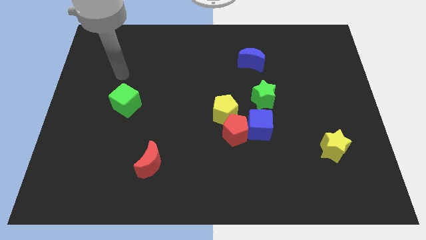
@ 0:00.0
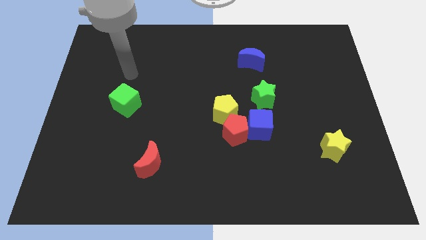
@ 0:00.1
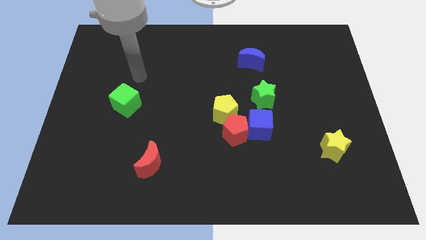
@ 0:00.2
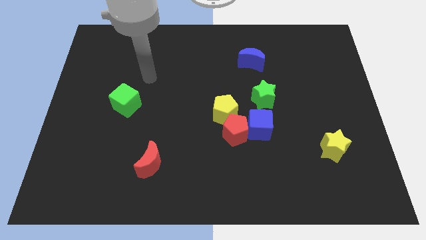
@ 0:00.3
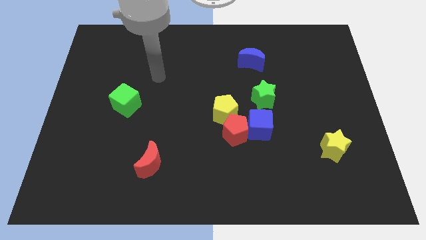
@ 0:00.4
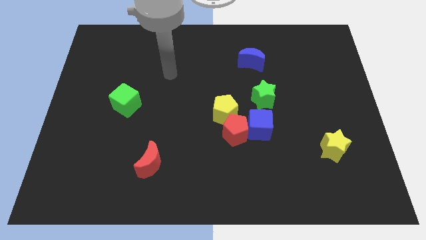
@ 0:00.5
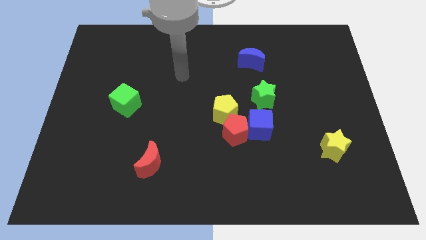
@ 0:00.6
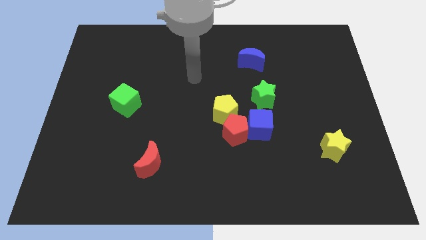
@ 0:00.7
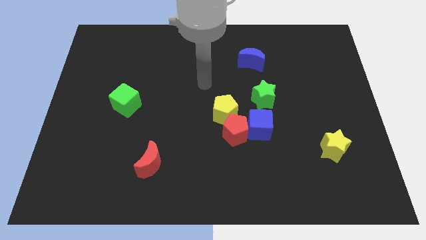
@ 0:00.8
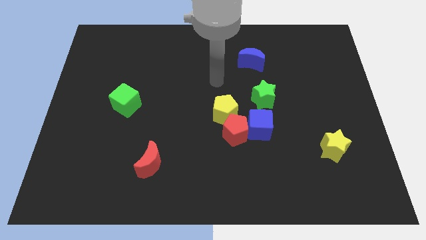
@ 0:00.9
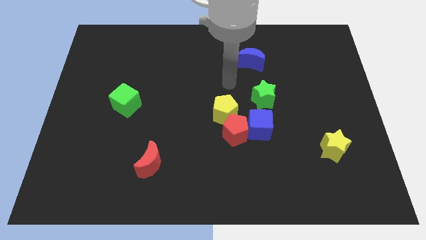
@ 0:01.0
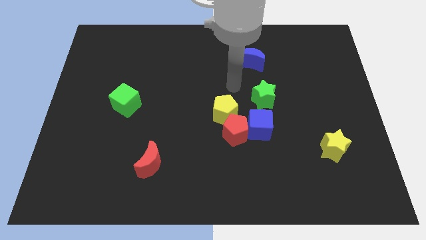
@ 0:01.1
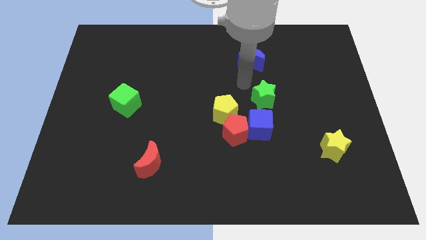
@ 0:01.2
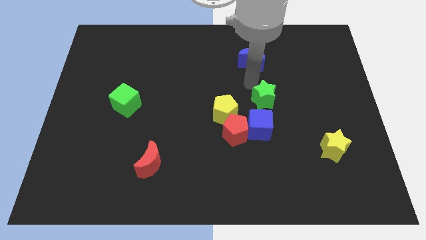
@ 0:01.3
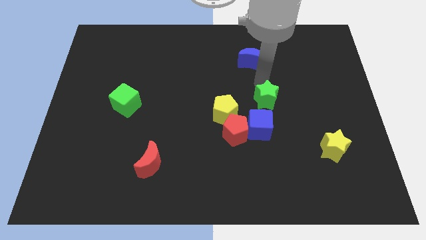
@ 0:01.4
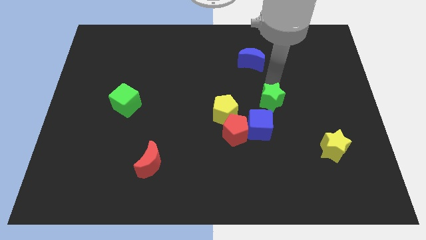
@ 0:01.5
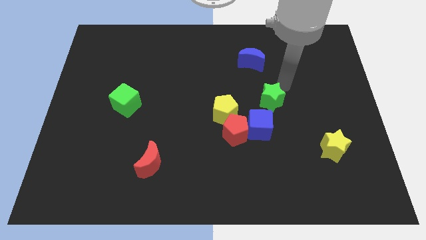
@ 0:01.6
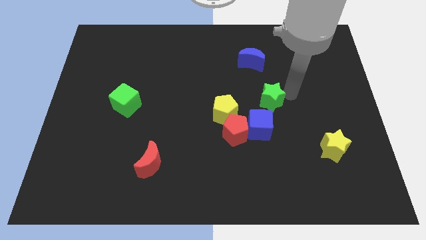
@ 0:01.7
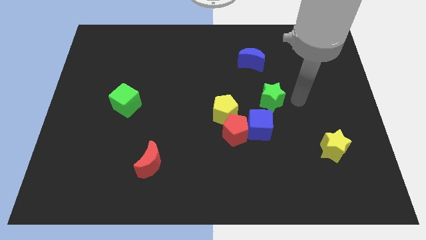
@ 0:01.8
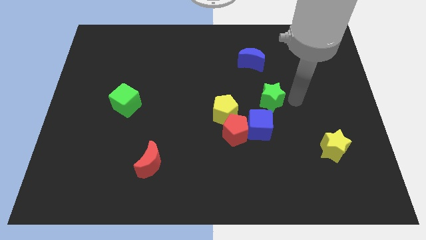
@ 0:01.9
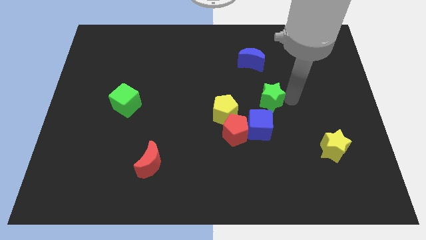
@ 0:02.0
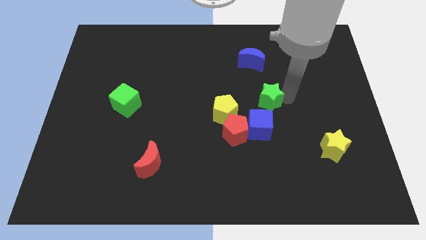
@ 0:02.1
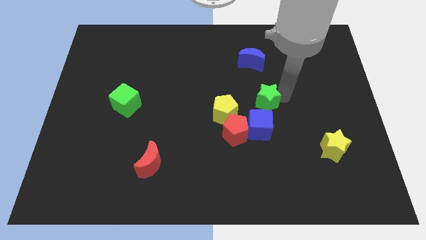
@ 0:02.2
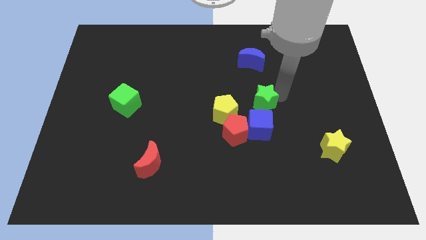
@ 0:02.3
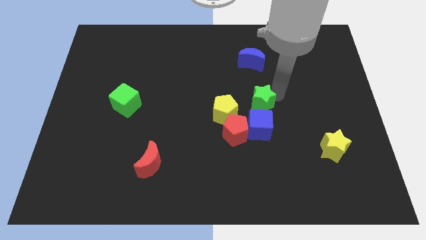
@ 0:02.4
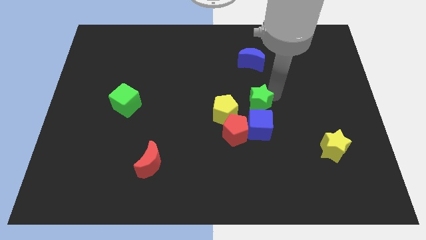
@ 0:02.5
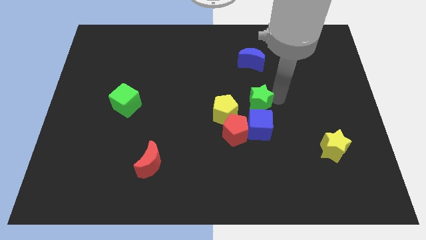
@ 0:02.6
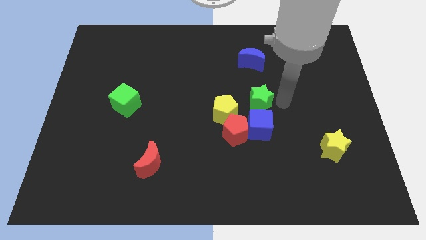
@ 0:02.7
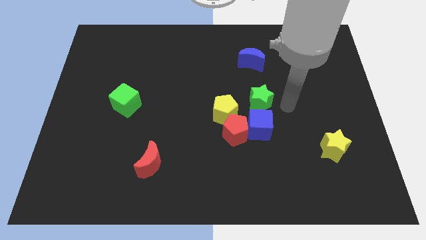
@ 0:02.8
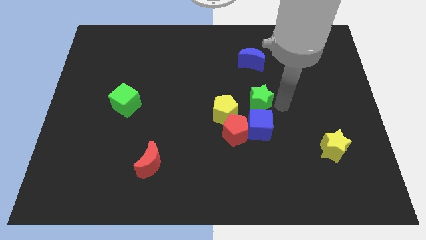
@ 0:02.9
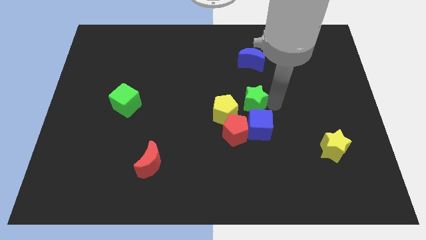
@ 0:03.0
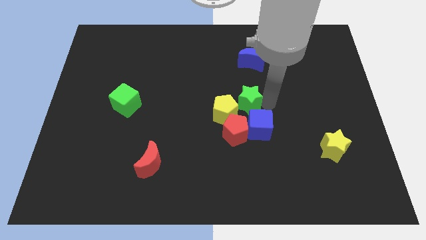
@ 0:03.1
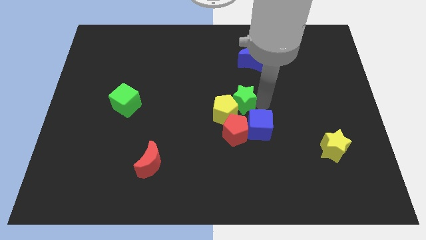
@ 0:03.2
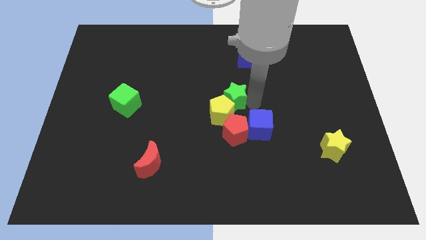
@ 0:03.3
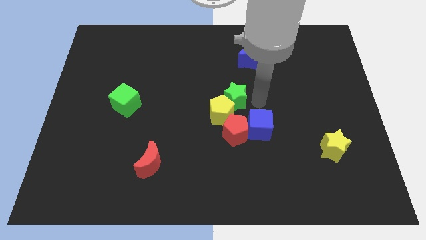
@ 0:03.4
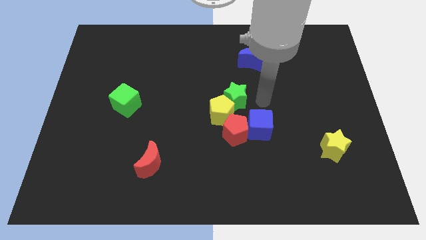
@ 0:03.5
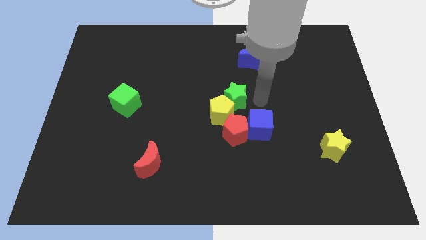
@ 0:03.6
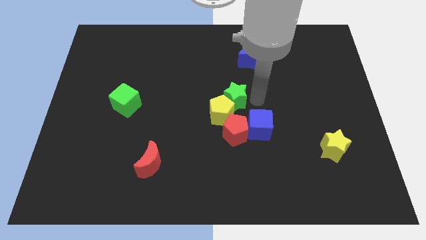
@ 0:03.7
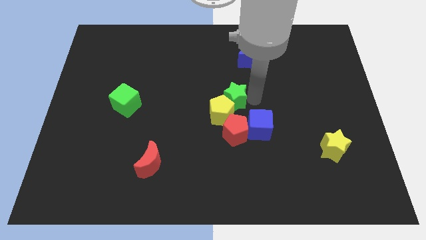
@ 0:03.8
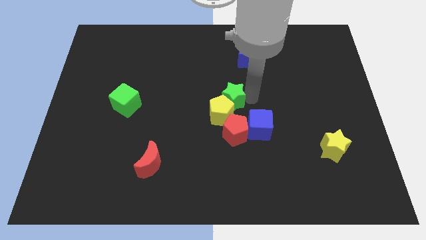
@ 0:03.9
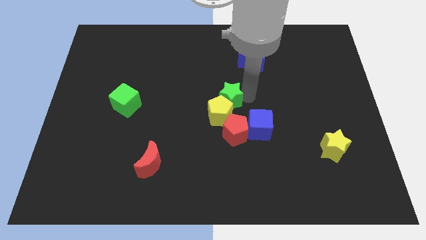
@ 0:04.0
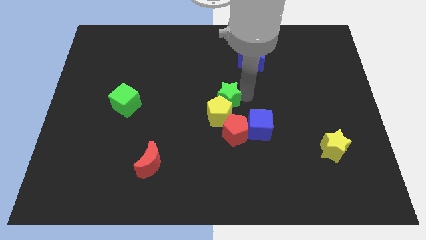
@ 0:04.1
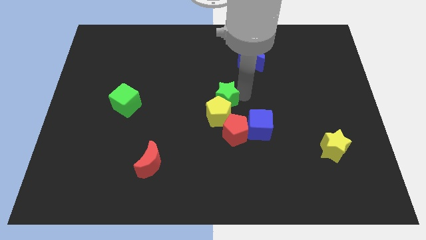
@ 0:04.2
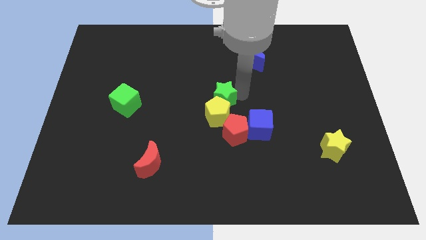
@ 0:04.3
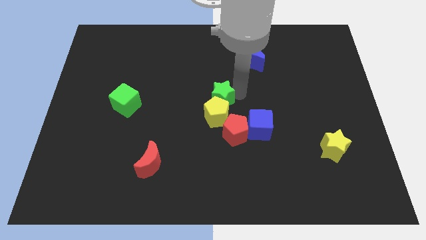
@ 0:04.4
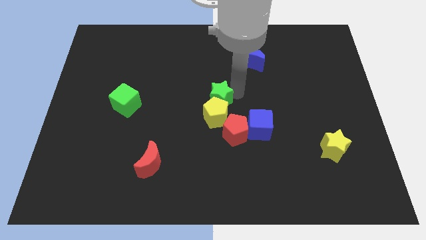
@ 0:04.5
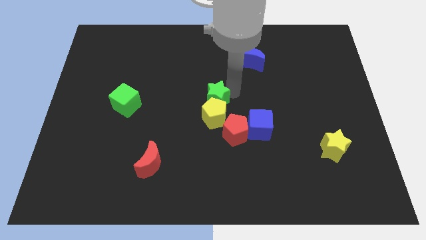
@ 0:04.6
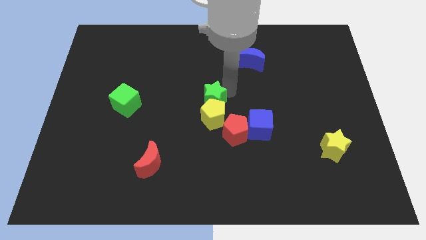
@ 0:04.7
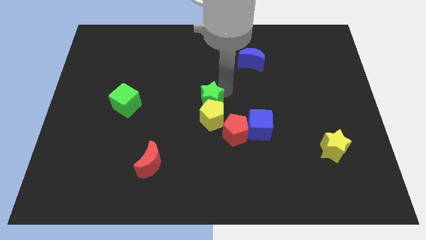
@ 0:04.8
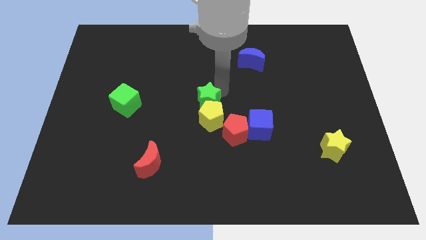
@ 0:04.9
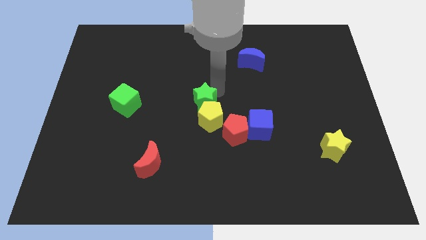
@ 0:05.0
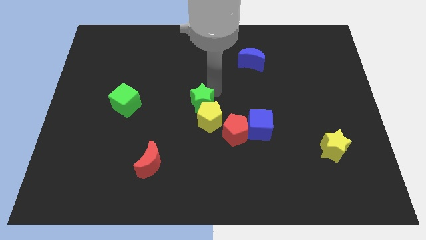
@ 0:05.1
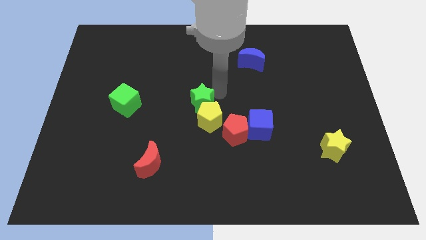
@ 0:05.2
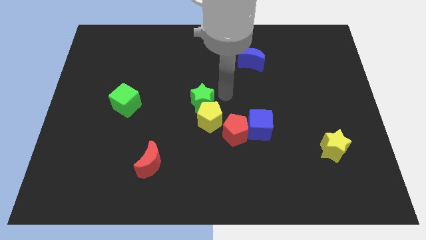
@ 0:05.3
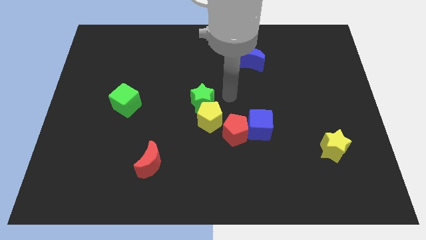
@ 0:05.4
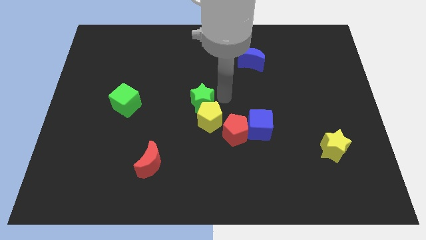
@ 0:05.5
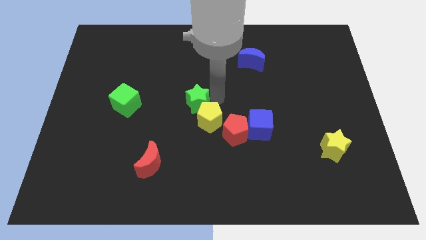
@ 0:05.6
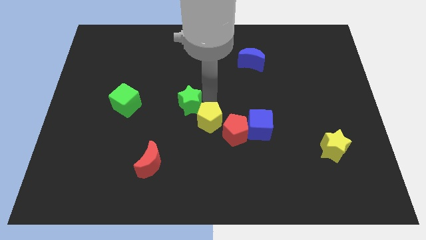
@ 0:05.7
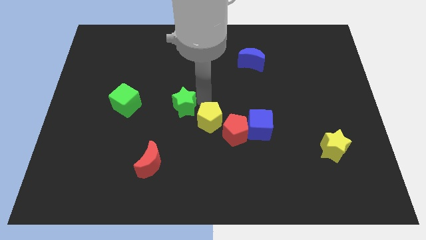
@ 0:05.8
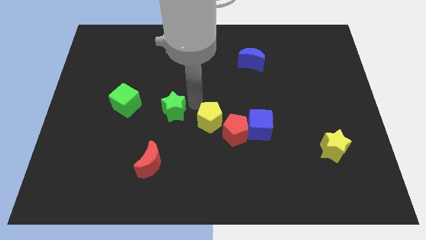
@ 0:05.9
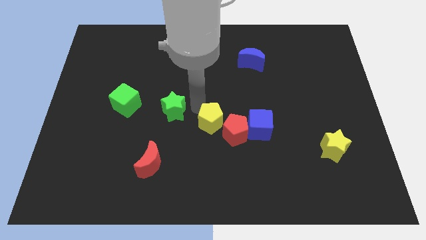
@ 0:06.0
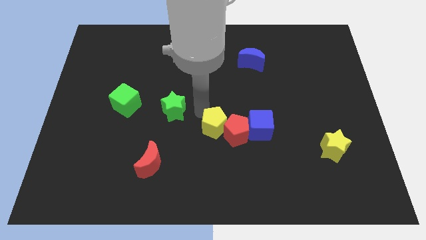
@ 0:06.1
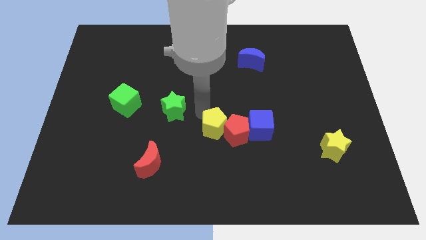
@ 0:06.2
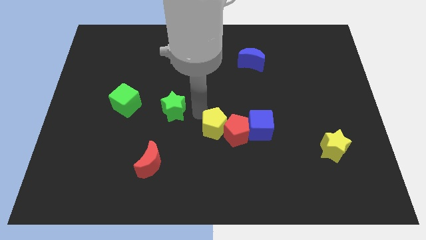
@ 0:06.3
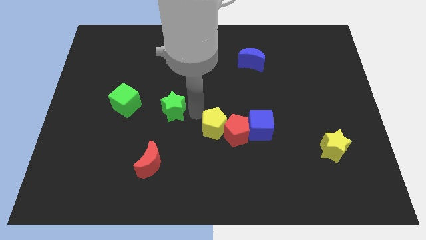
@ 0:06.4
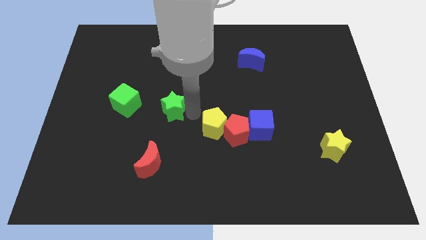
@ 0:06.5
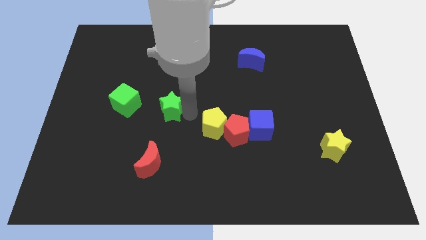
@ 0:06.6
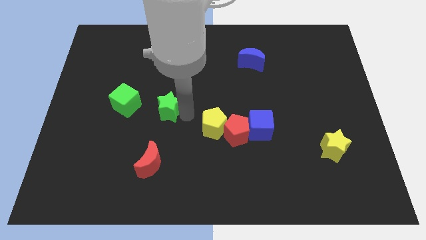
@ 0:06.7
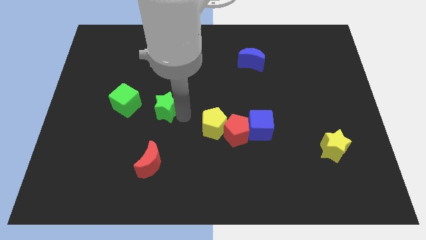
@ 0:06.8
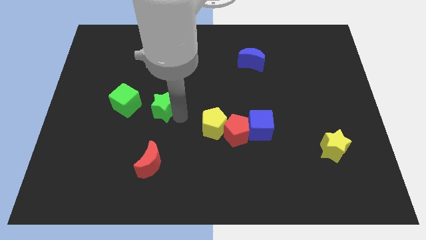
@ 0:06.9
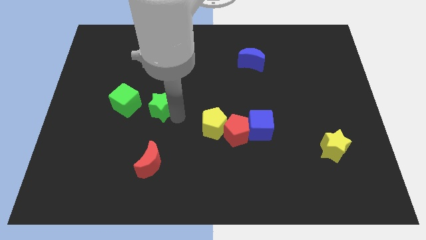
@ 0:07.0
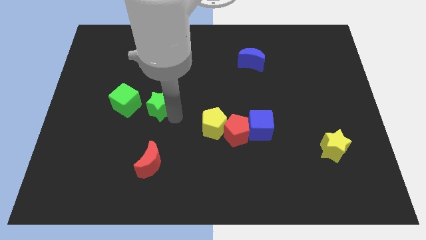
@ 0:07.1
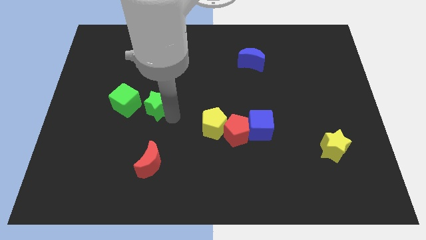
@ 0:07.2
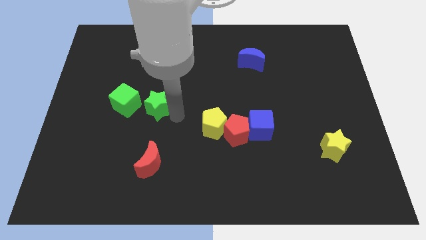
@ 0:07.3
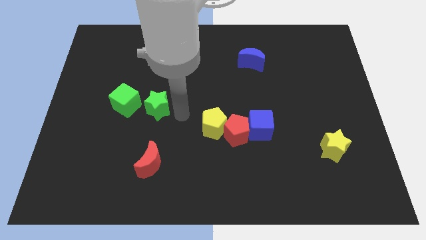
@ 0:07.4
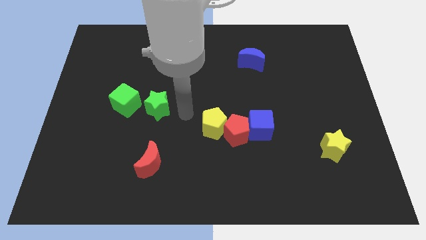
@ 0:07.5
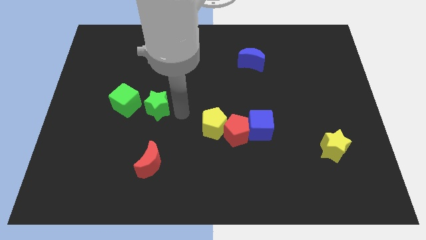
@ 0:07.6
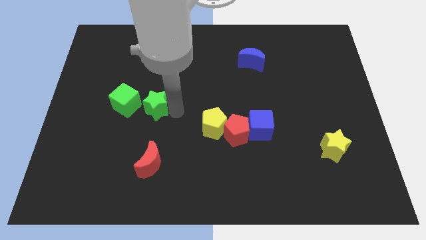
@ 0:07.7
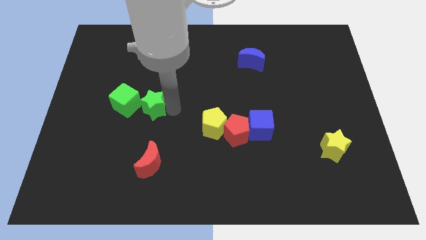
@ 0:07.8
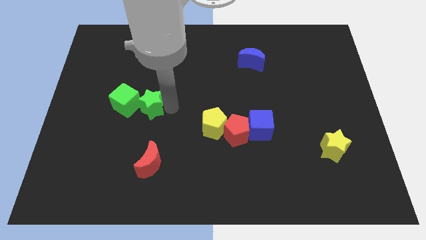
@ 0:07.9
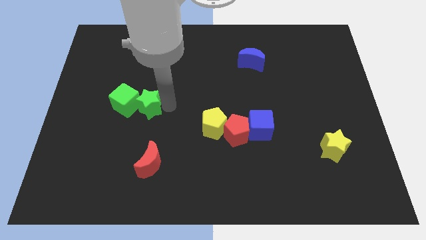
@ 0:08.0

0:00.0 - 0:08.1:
put the green star to the green cube
